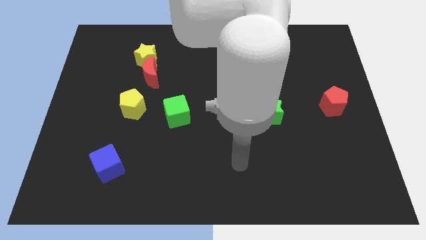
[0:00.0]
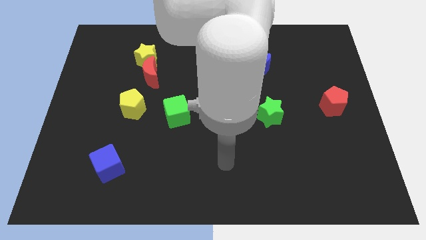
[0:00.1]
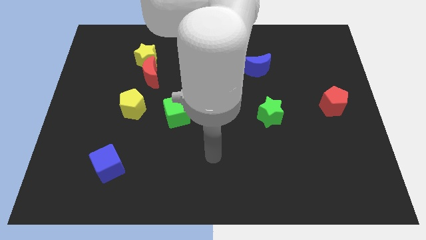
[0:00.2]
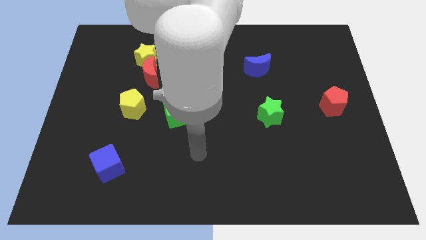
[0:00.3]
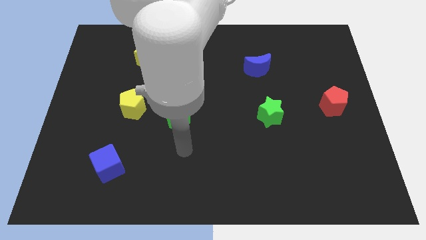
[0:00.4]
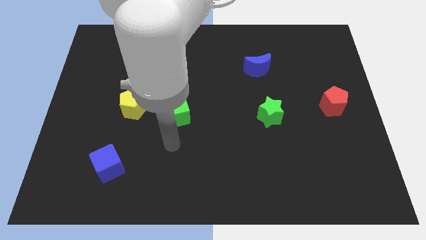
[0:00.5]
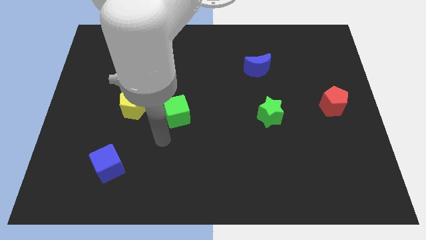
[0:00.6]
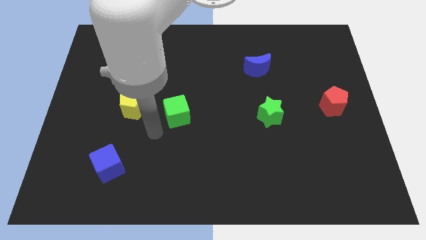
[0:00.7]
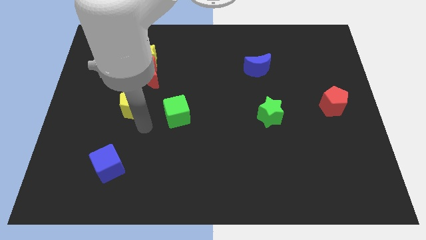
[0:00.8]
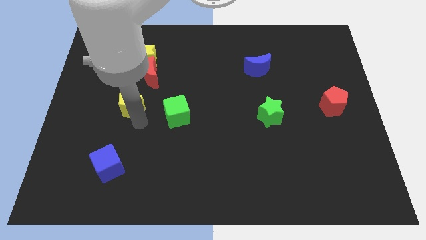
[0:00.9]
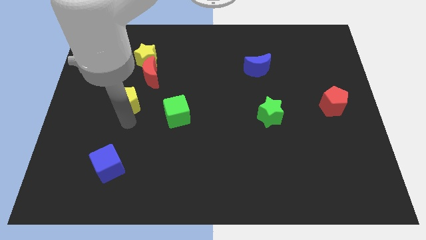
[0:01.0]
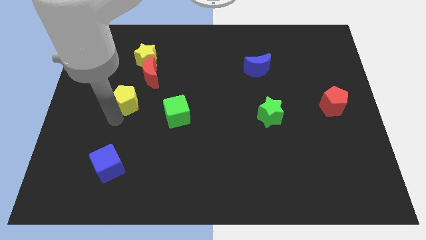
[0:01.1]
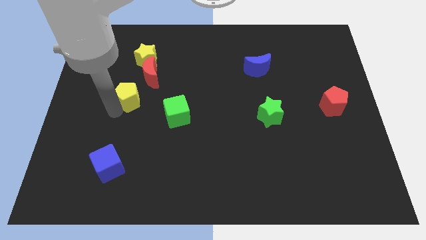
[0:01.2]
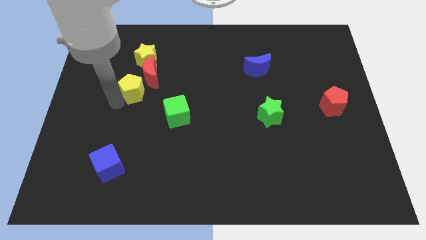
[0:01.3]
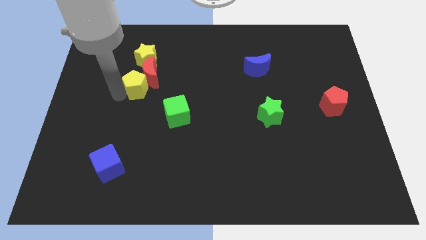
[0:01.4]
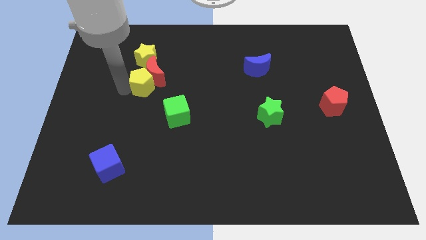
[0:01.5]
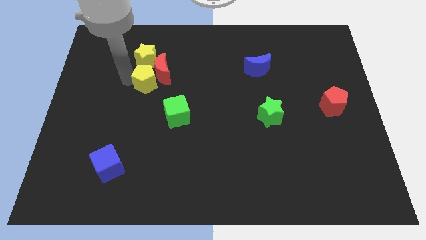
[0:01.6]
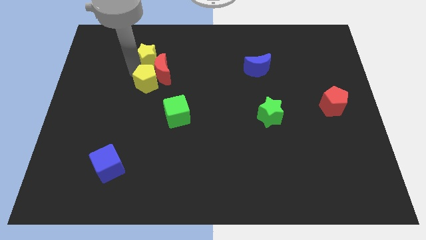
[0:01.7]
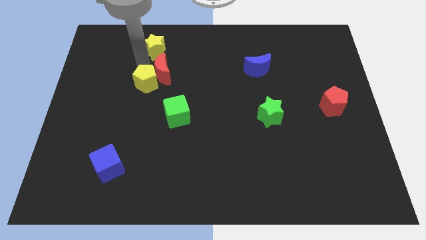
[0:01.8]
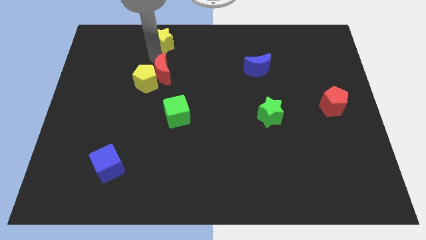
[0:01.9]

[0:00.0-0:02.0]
pull the red moon apart from the yellow star

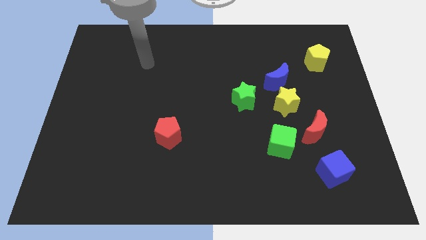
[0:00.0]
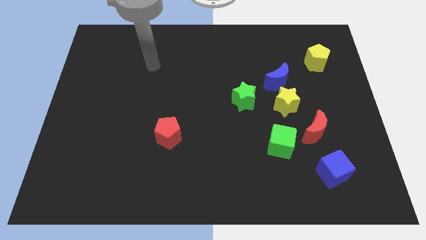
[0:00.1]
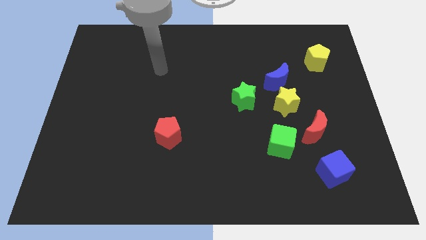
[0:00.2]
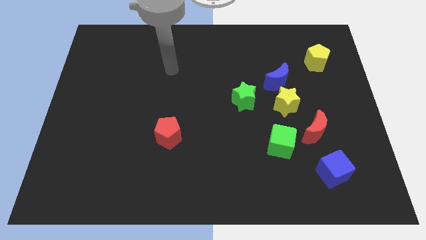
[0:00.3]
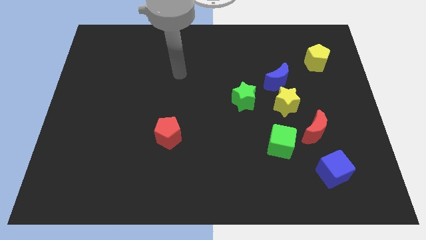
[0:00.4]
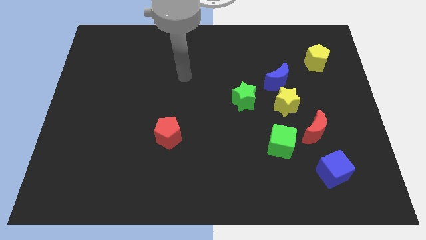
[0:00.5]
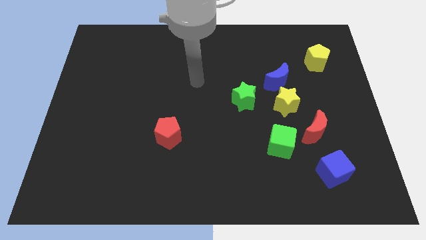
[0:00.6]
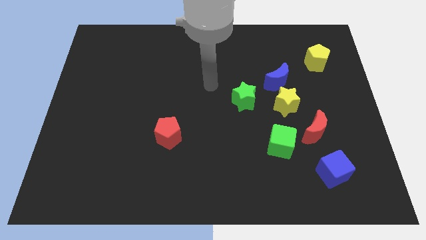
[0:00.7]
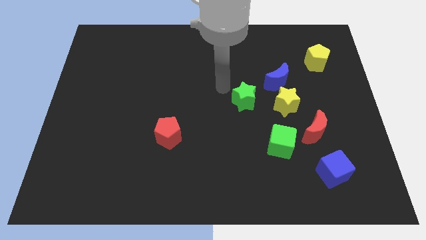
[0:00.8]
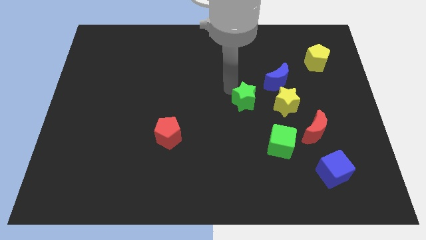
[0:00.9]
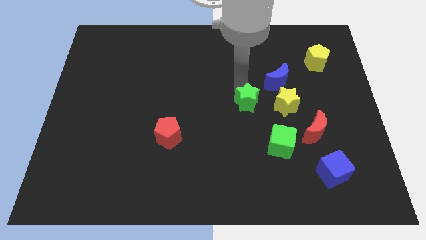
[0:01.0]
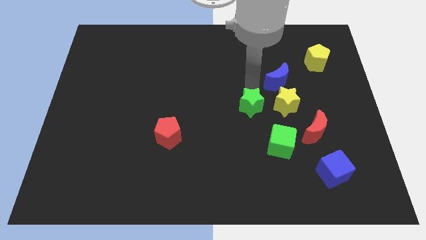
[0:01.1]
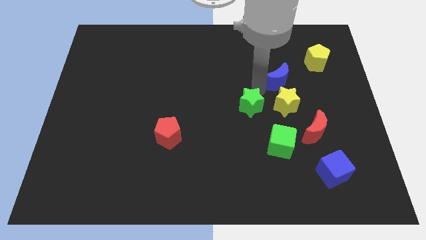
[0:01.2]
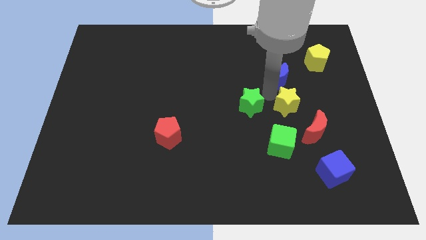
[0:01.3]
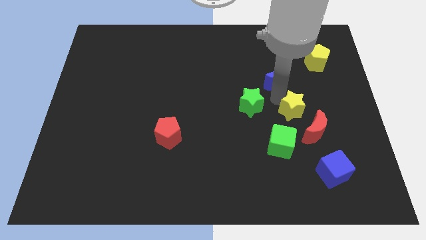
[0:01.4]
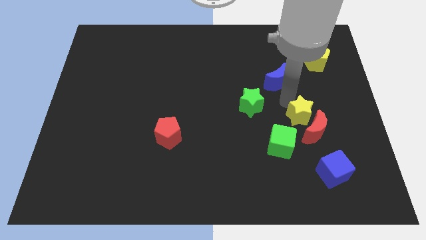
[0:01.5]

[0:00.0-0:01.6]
move the blue moon away from the yellow star

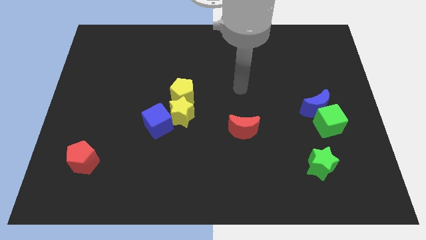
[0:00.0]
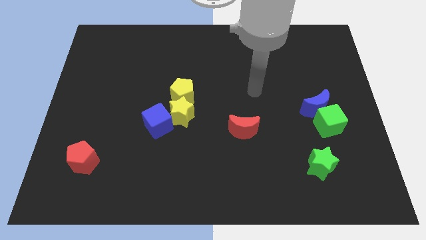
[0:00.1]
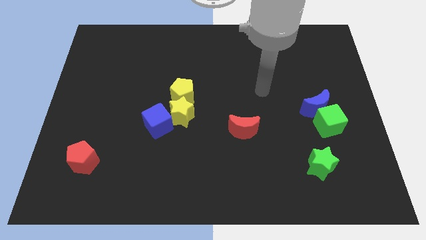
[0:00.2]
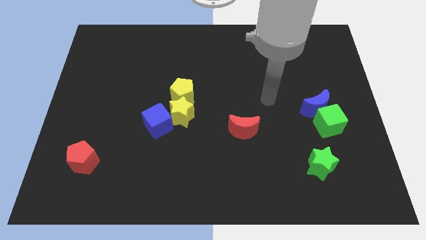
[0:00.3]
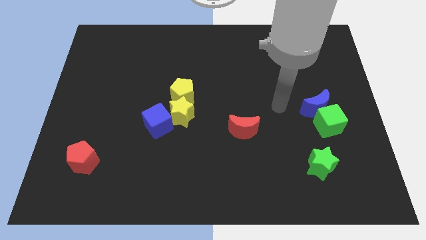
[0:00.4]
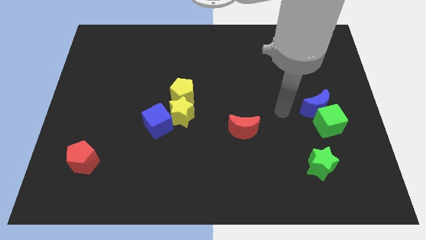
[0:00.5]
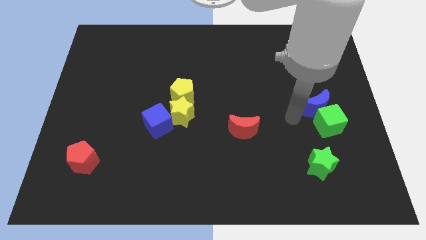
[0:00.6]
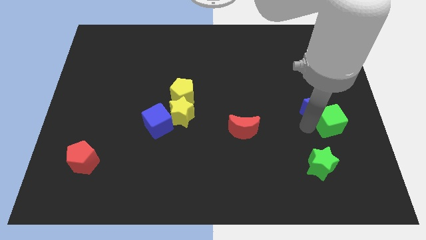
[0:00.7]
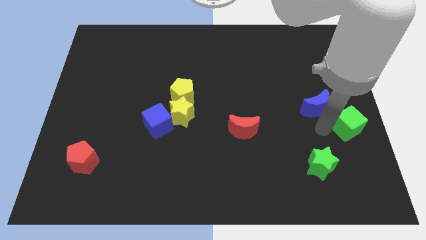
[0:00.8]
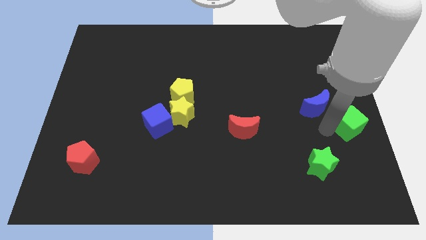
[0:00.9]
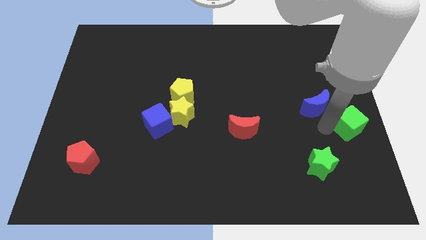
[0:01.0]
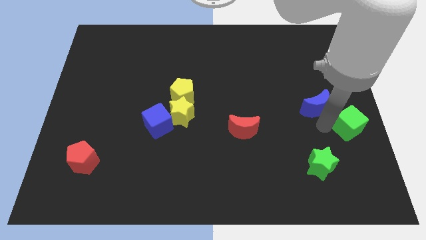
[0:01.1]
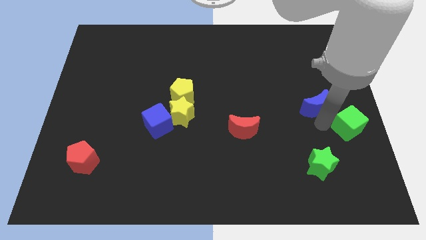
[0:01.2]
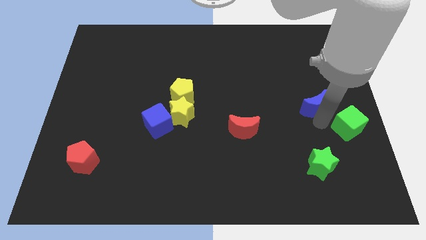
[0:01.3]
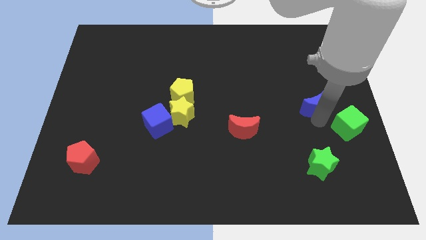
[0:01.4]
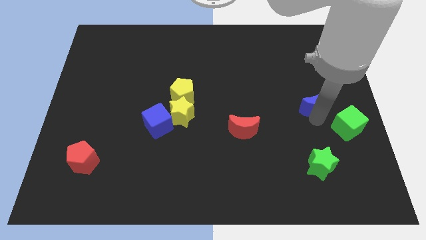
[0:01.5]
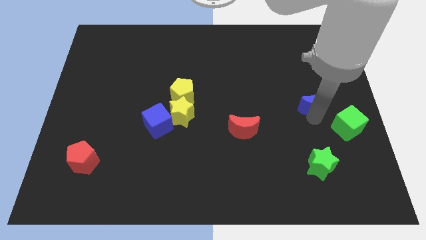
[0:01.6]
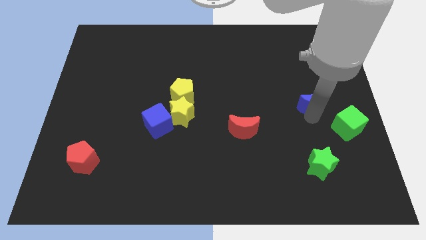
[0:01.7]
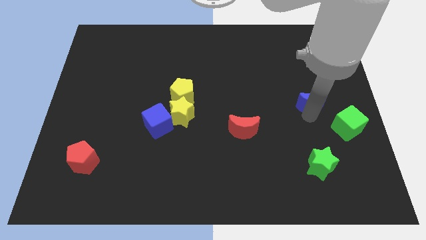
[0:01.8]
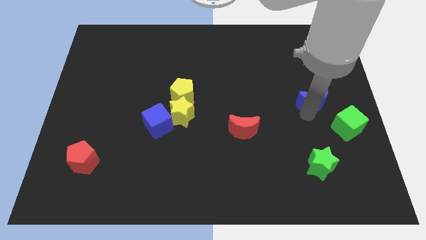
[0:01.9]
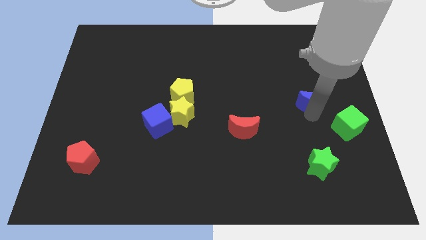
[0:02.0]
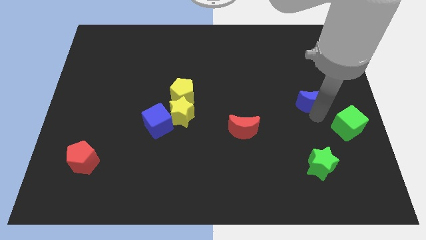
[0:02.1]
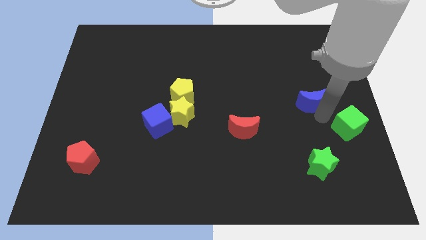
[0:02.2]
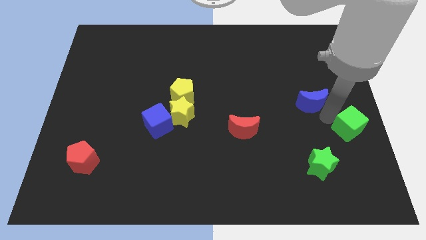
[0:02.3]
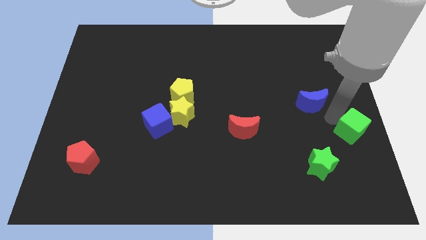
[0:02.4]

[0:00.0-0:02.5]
separate the blue moon from the green cube

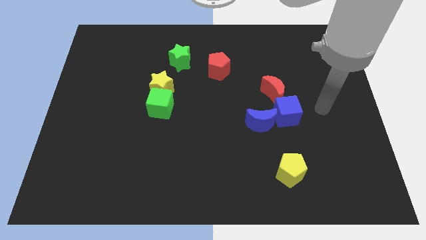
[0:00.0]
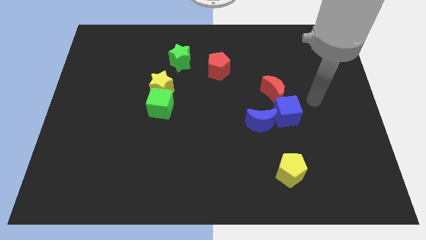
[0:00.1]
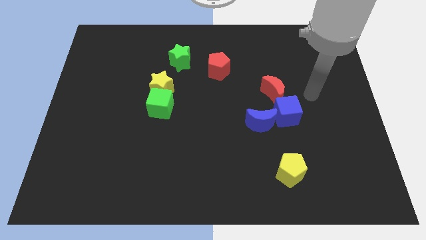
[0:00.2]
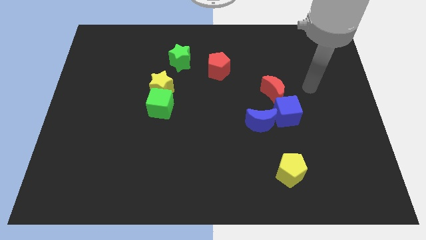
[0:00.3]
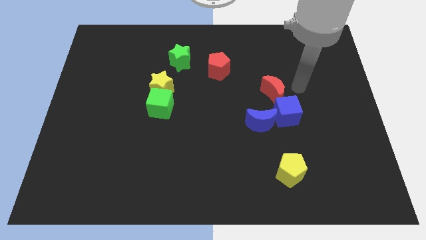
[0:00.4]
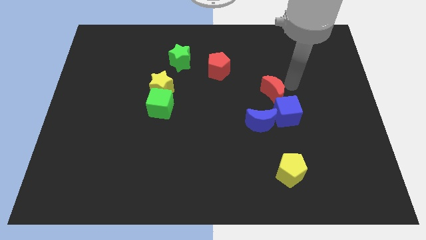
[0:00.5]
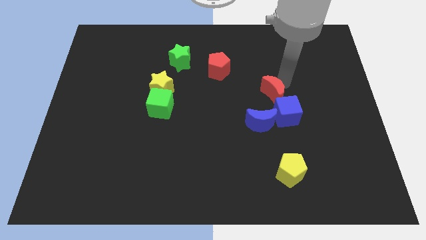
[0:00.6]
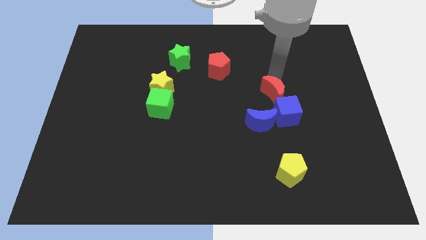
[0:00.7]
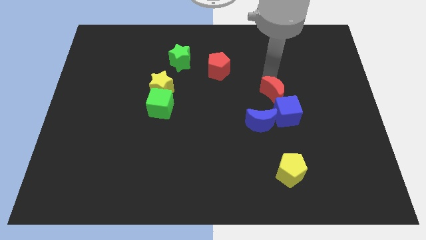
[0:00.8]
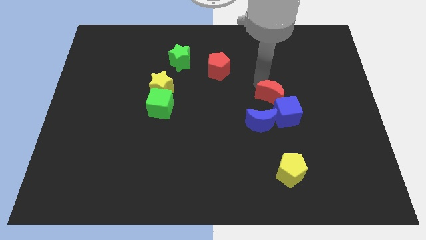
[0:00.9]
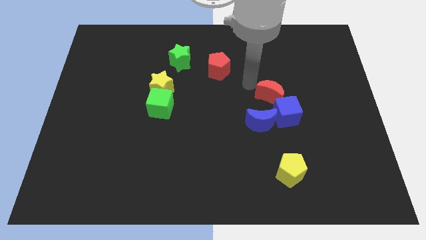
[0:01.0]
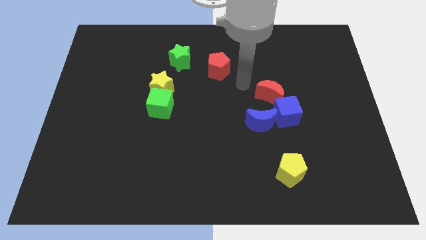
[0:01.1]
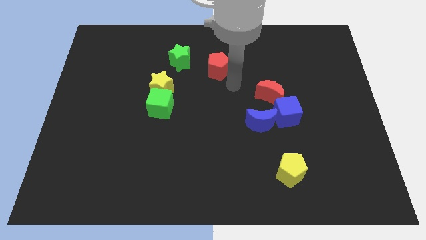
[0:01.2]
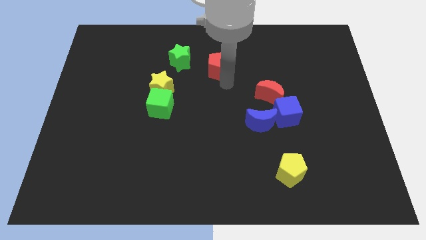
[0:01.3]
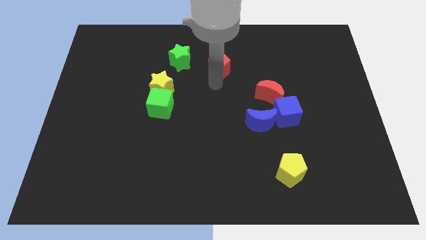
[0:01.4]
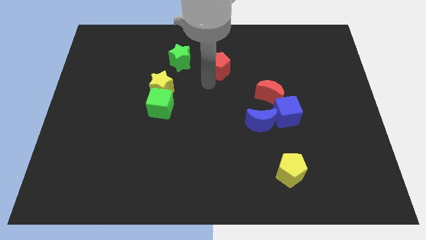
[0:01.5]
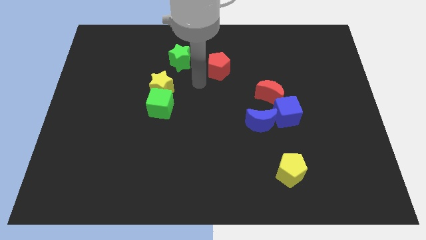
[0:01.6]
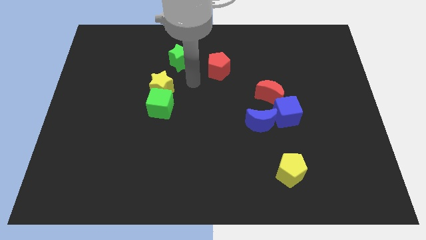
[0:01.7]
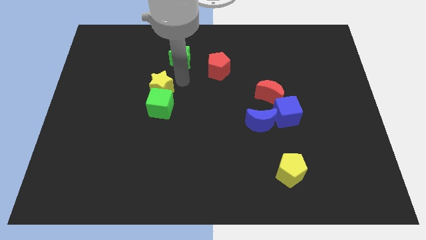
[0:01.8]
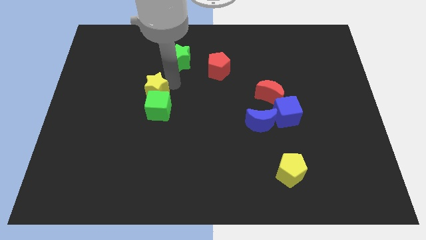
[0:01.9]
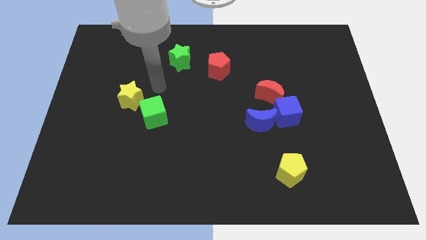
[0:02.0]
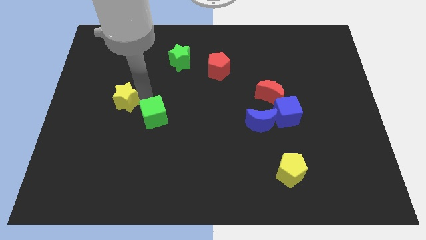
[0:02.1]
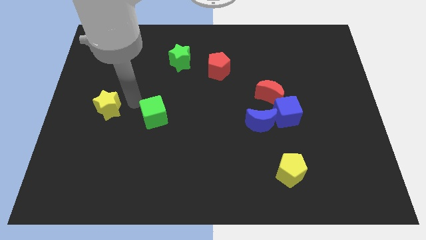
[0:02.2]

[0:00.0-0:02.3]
pull the green cube apart from the yellow star

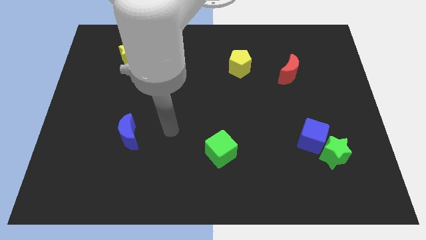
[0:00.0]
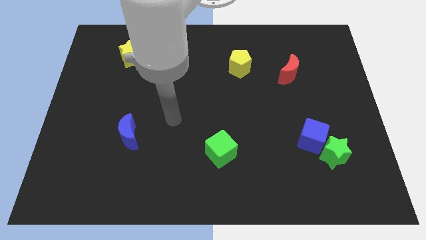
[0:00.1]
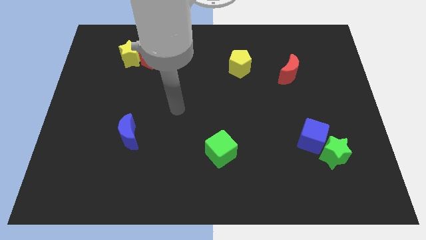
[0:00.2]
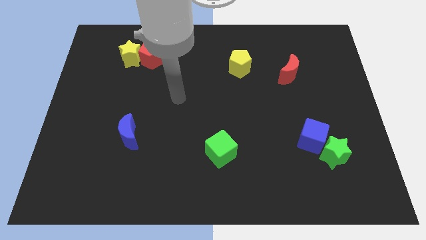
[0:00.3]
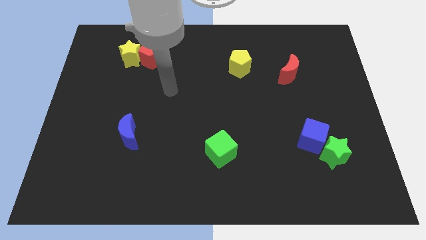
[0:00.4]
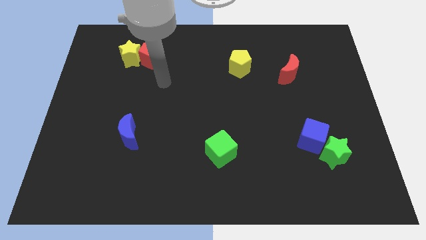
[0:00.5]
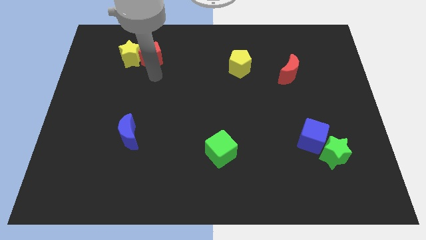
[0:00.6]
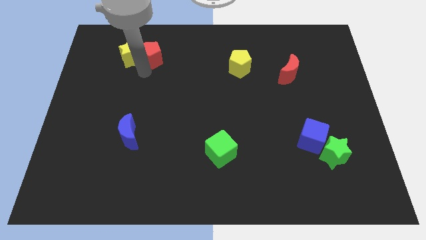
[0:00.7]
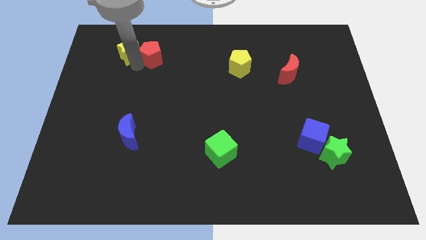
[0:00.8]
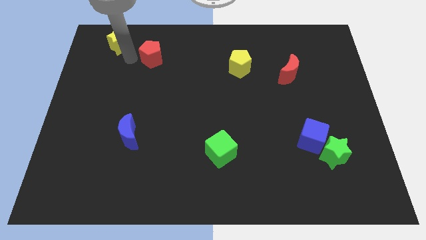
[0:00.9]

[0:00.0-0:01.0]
move the red pentagon away from the yellow star
